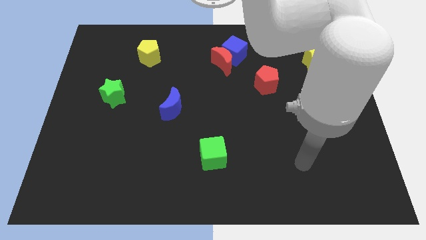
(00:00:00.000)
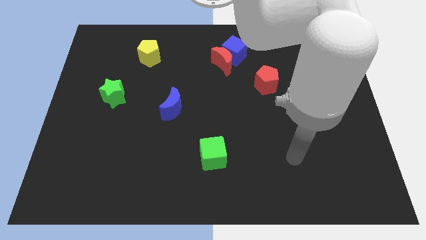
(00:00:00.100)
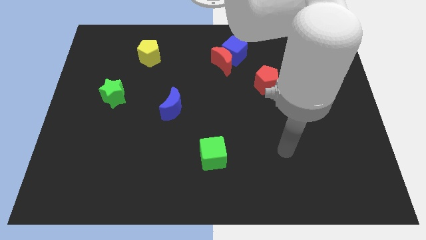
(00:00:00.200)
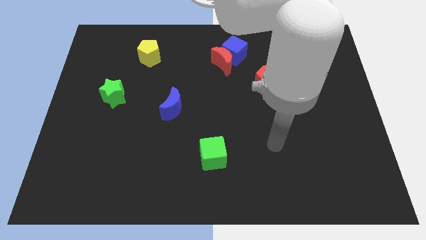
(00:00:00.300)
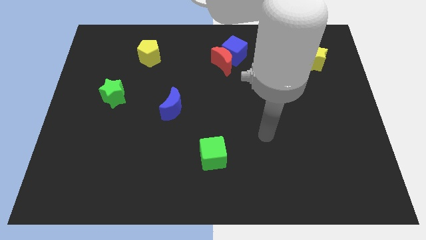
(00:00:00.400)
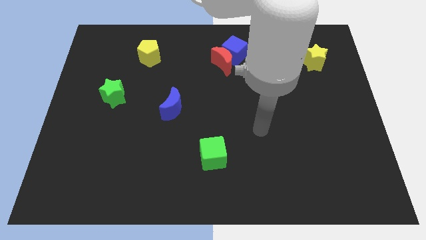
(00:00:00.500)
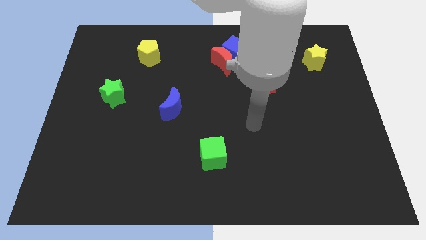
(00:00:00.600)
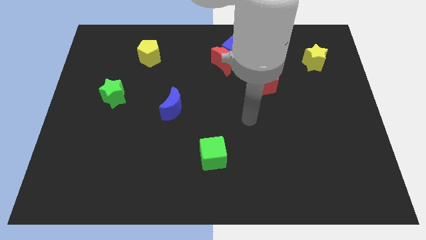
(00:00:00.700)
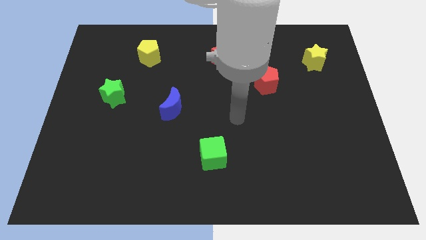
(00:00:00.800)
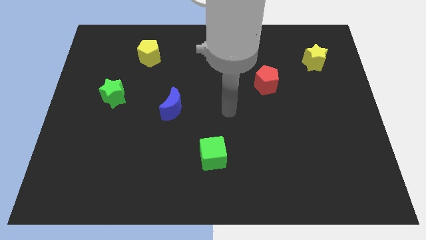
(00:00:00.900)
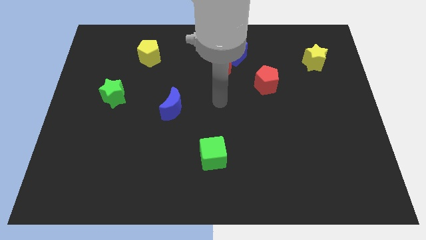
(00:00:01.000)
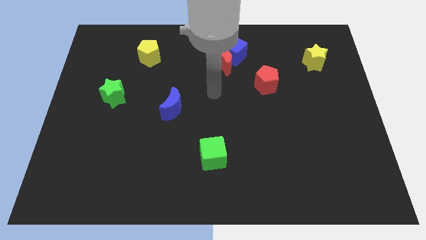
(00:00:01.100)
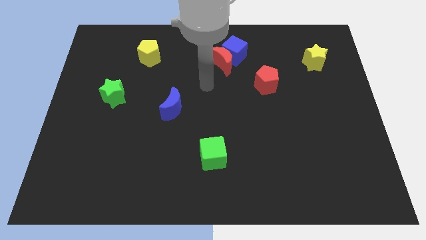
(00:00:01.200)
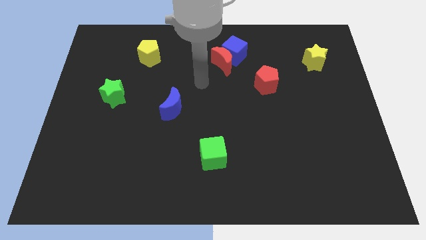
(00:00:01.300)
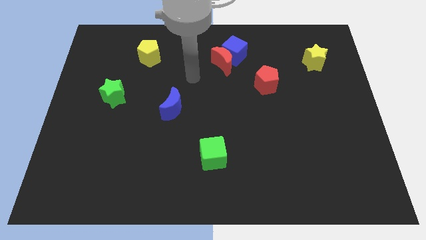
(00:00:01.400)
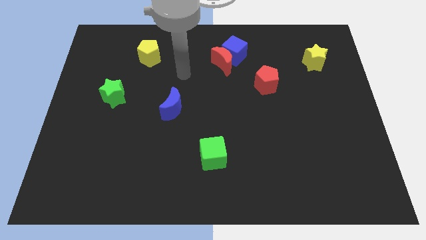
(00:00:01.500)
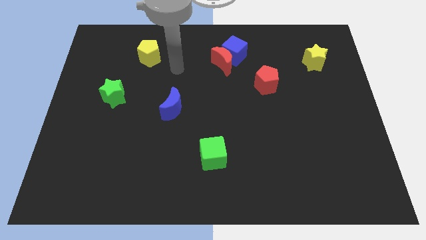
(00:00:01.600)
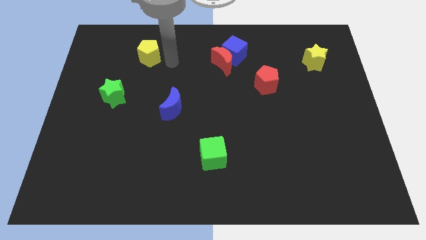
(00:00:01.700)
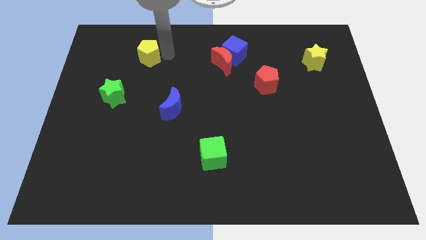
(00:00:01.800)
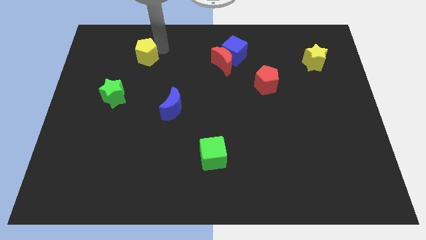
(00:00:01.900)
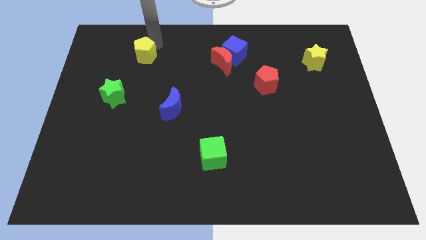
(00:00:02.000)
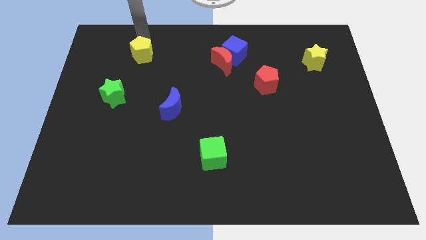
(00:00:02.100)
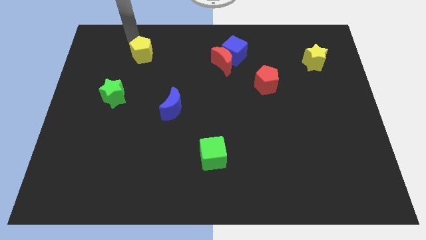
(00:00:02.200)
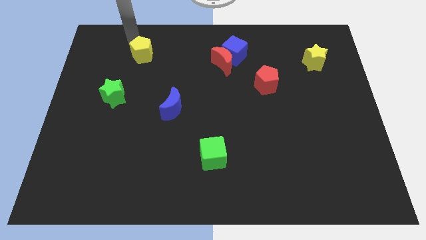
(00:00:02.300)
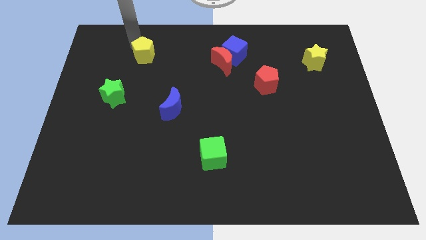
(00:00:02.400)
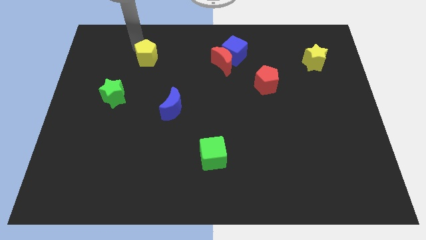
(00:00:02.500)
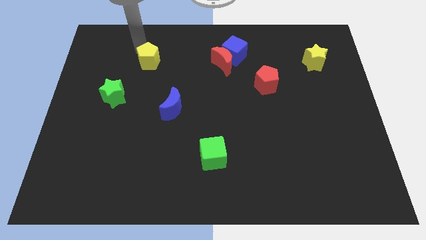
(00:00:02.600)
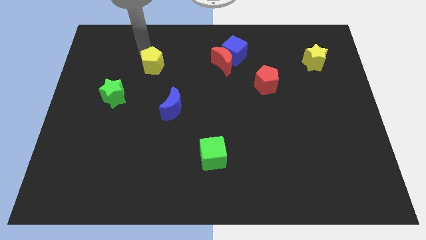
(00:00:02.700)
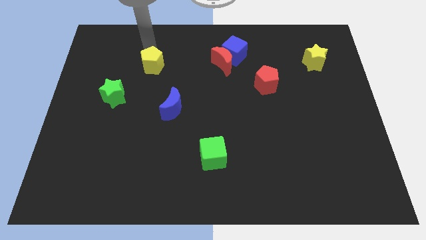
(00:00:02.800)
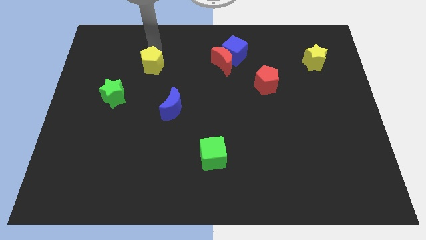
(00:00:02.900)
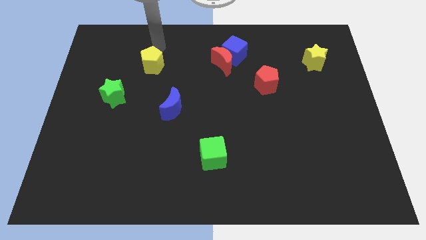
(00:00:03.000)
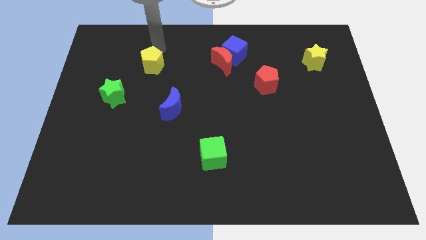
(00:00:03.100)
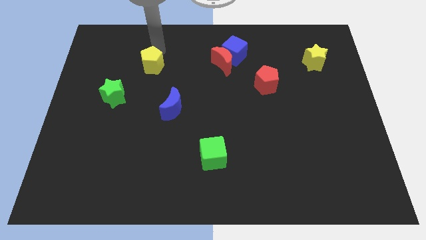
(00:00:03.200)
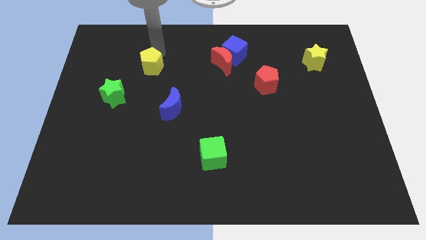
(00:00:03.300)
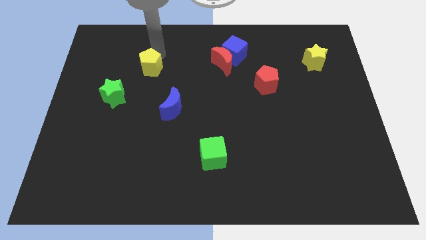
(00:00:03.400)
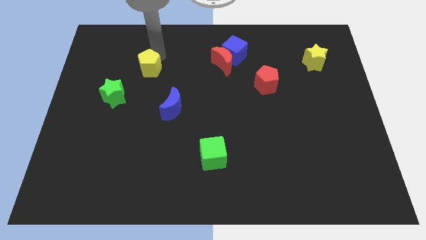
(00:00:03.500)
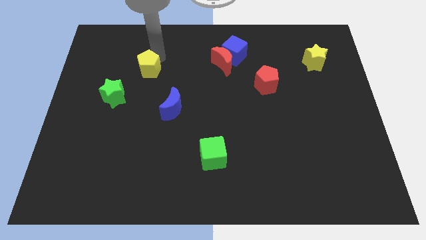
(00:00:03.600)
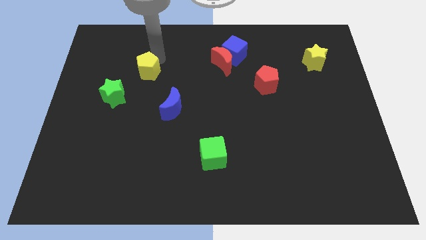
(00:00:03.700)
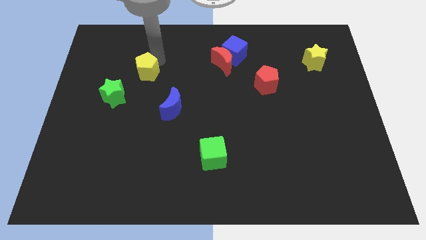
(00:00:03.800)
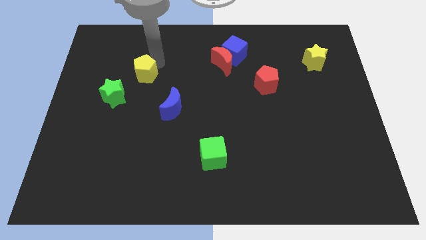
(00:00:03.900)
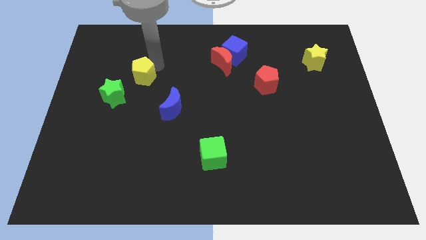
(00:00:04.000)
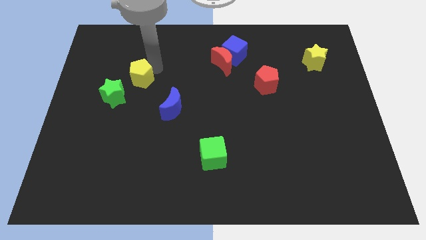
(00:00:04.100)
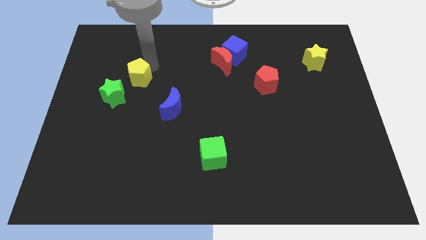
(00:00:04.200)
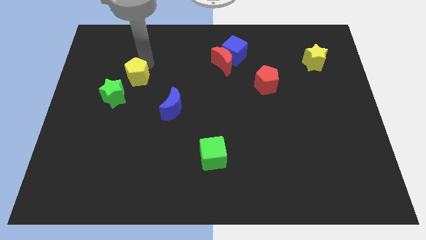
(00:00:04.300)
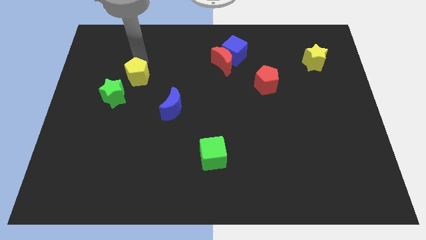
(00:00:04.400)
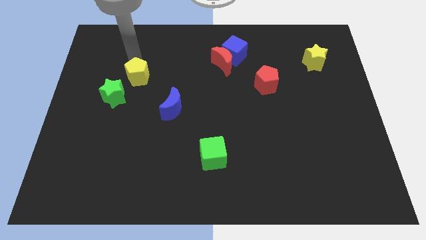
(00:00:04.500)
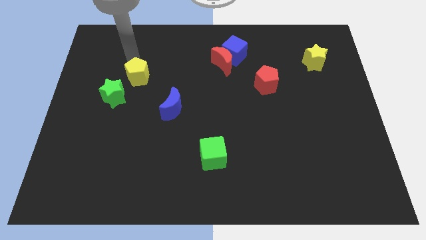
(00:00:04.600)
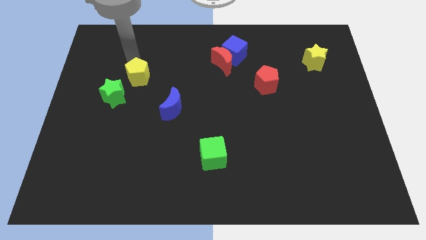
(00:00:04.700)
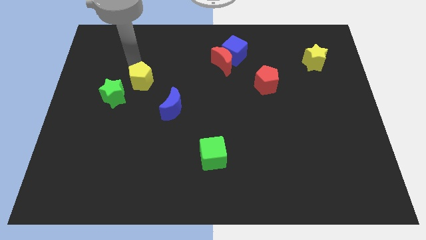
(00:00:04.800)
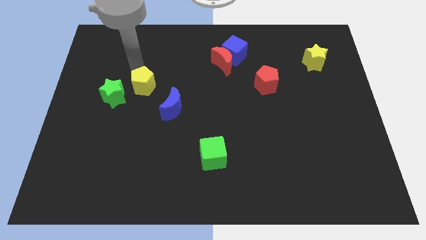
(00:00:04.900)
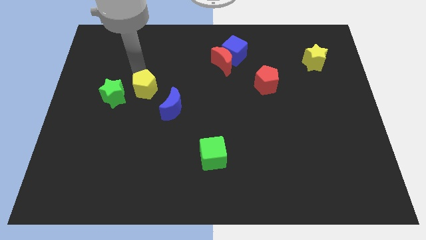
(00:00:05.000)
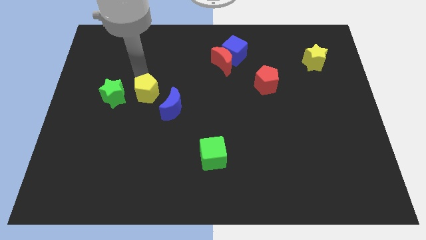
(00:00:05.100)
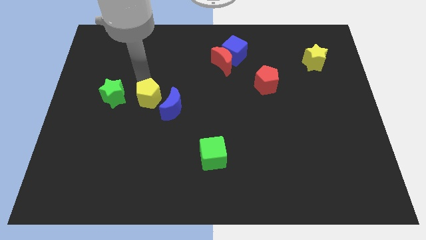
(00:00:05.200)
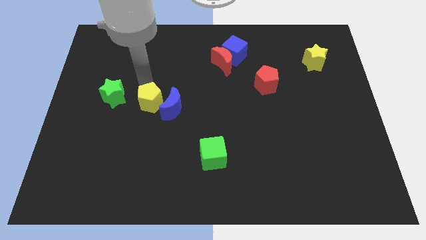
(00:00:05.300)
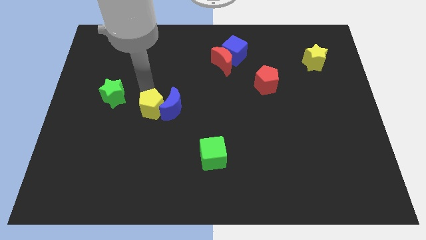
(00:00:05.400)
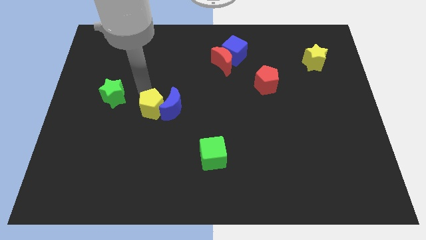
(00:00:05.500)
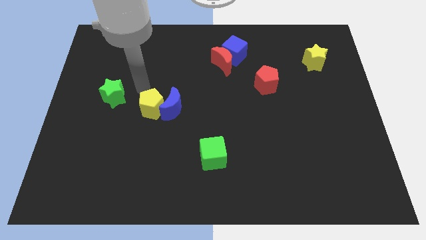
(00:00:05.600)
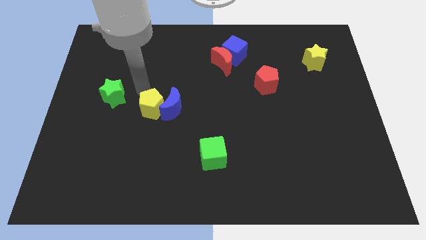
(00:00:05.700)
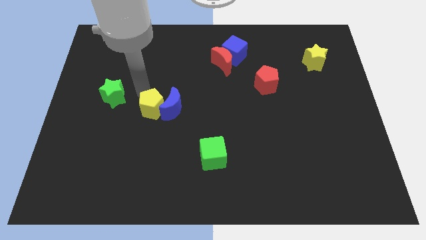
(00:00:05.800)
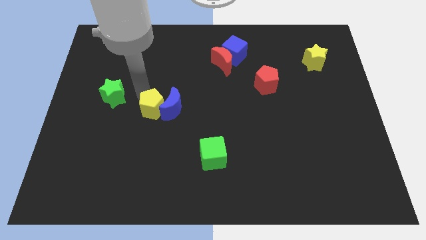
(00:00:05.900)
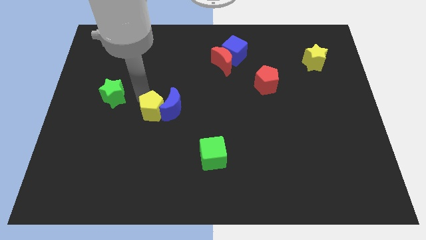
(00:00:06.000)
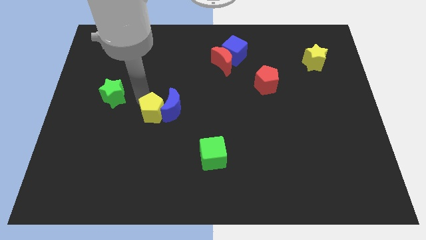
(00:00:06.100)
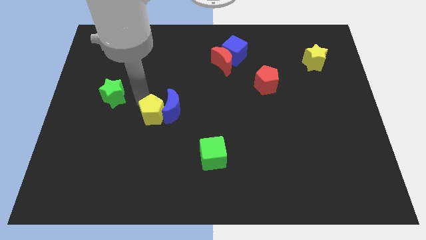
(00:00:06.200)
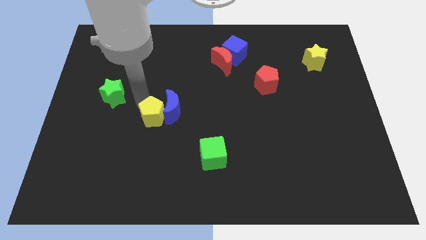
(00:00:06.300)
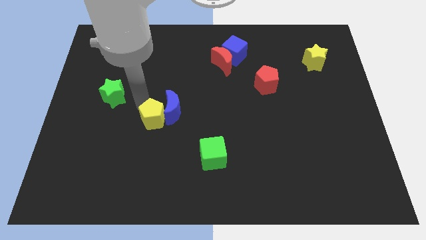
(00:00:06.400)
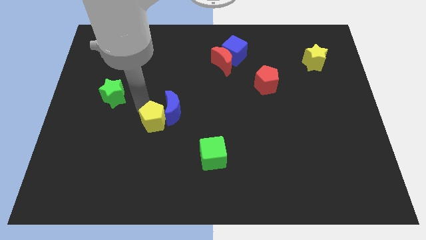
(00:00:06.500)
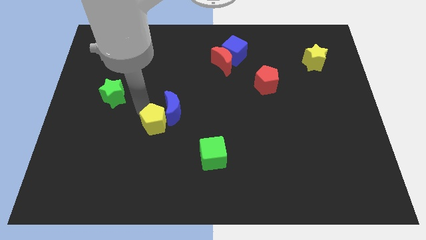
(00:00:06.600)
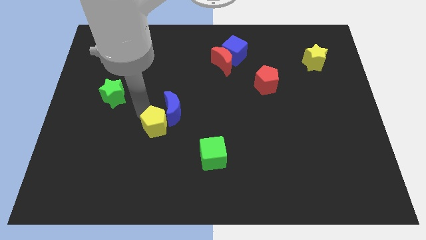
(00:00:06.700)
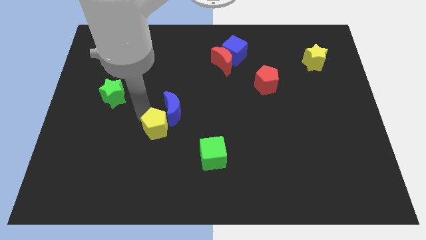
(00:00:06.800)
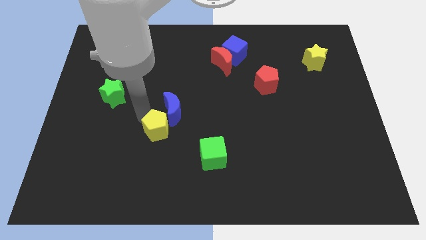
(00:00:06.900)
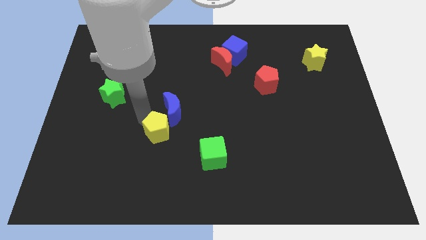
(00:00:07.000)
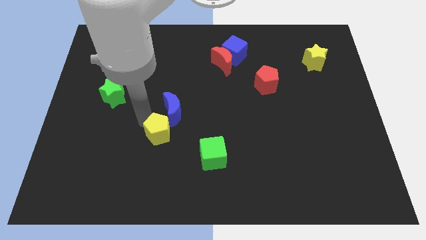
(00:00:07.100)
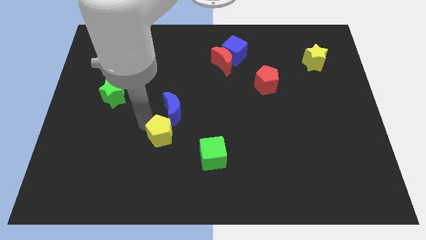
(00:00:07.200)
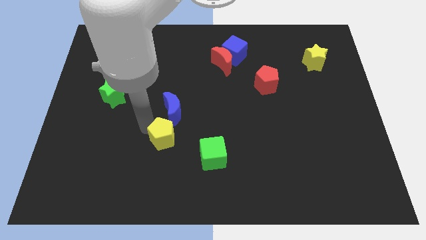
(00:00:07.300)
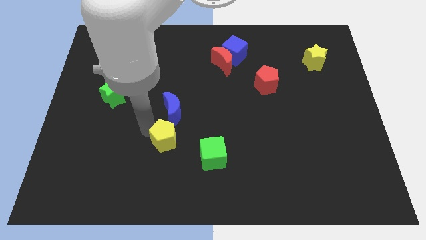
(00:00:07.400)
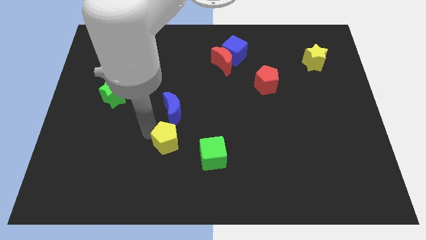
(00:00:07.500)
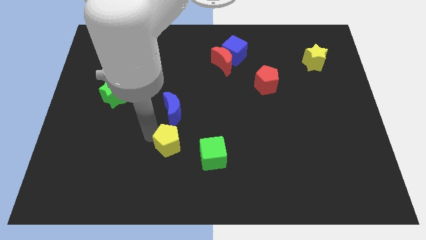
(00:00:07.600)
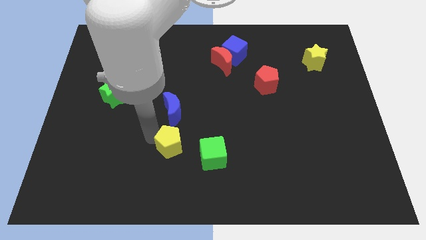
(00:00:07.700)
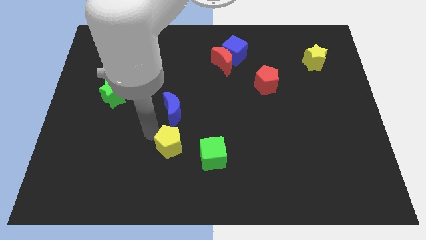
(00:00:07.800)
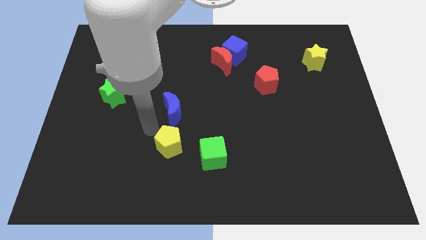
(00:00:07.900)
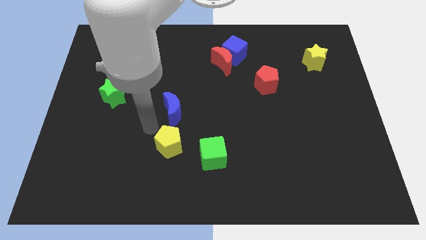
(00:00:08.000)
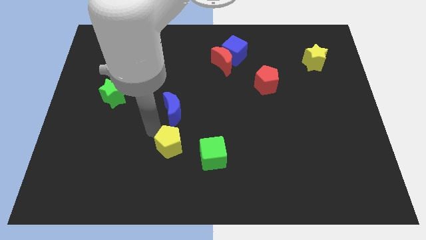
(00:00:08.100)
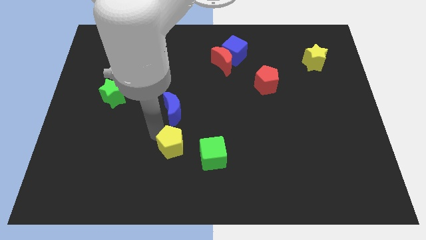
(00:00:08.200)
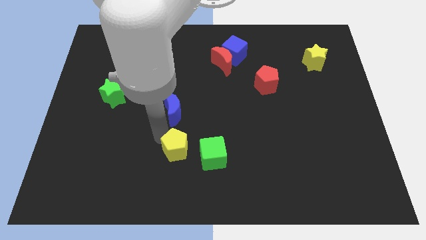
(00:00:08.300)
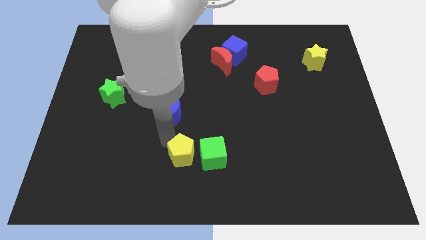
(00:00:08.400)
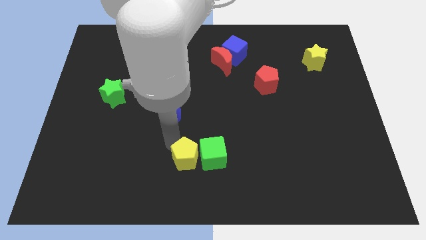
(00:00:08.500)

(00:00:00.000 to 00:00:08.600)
put the yellow pentagon to the bottom side
